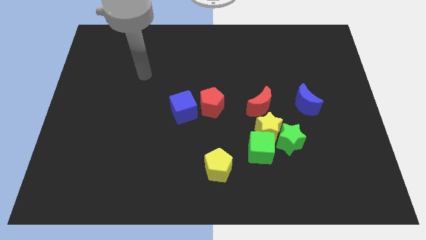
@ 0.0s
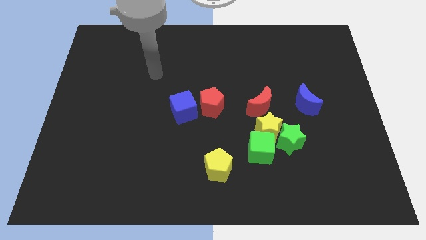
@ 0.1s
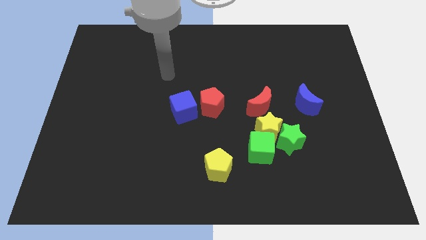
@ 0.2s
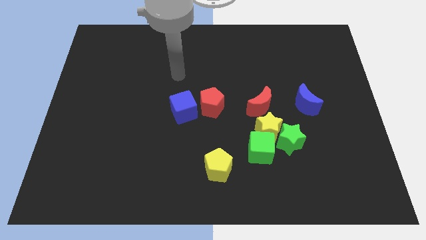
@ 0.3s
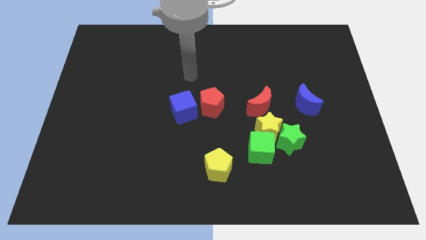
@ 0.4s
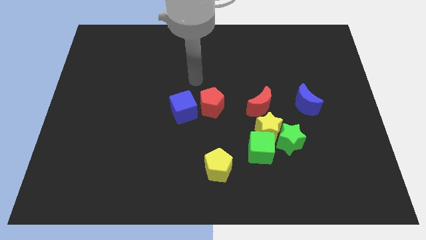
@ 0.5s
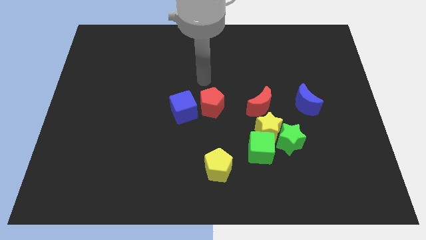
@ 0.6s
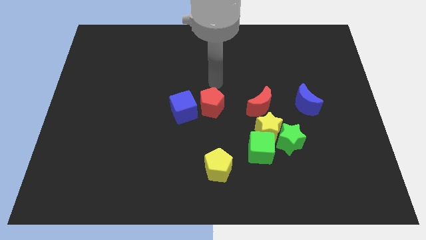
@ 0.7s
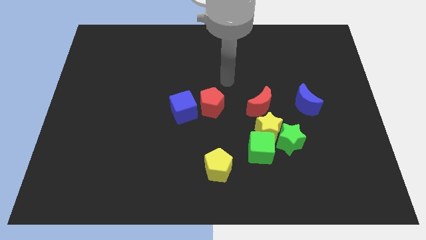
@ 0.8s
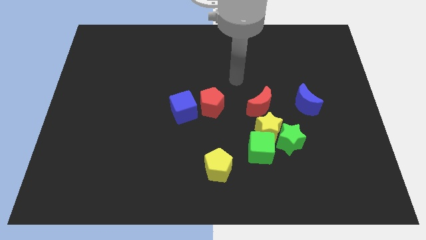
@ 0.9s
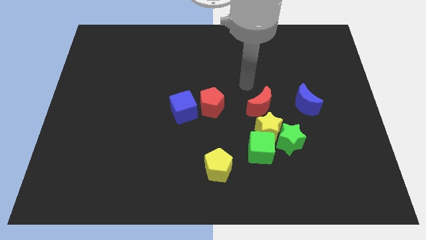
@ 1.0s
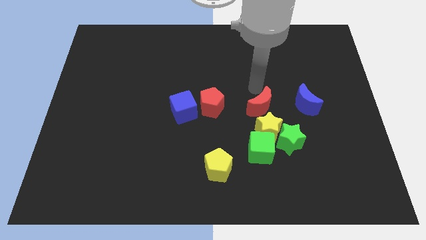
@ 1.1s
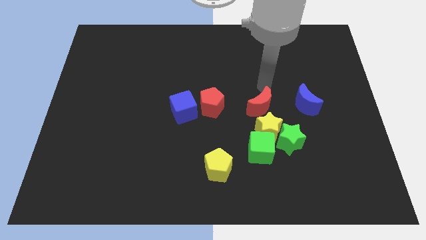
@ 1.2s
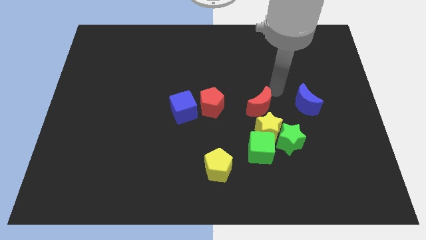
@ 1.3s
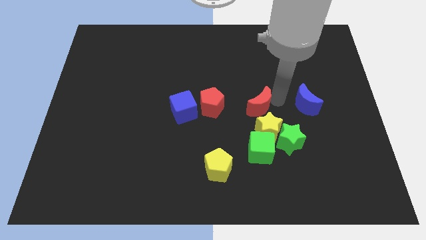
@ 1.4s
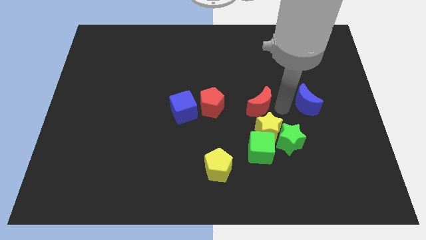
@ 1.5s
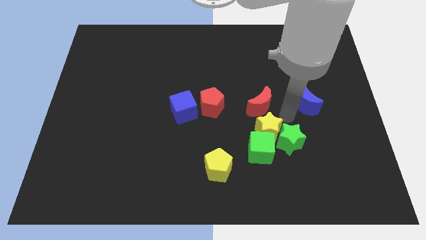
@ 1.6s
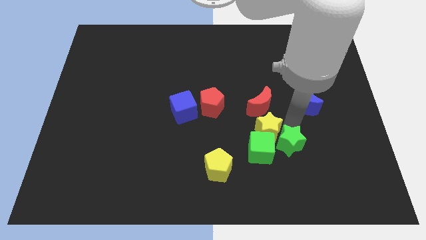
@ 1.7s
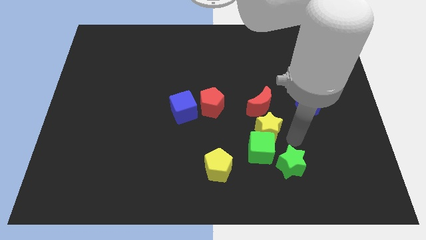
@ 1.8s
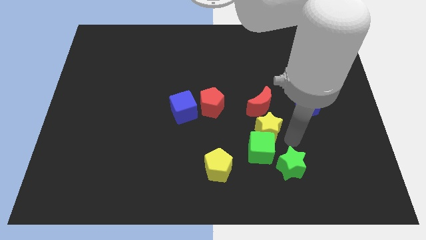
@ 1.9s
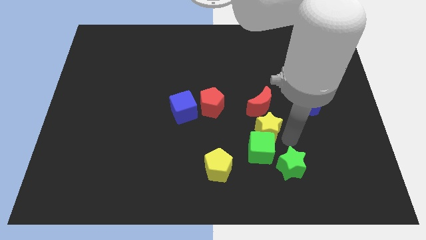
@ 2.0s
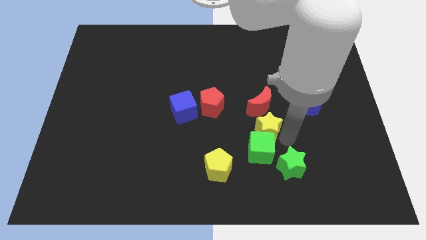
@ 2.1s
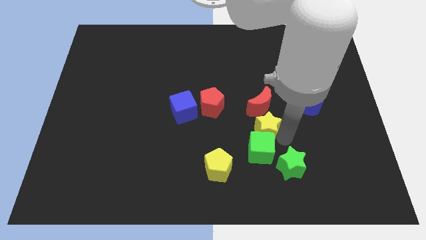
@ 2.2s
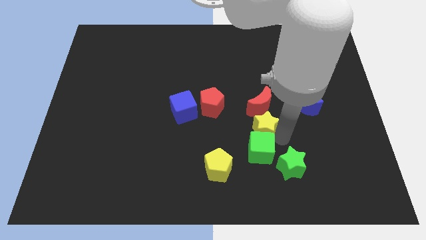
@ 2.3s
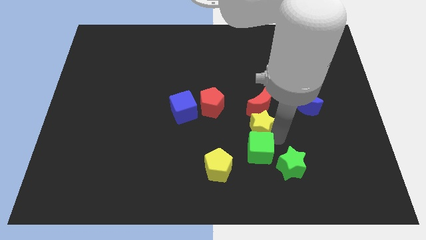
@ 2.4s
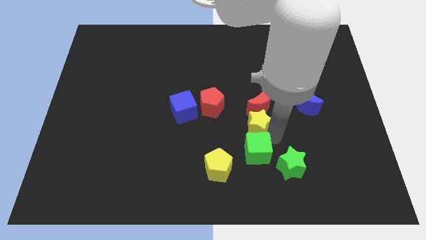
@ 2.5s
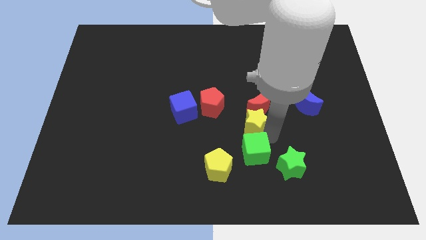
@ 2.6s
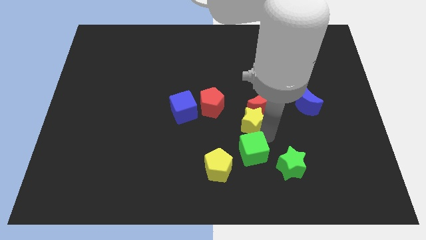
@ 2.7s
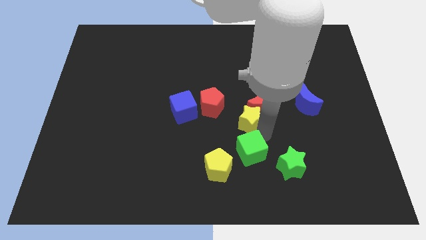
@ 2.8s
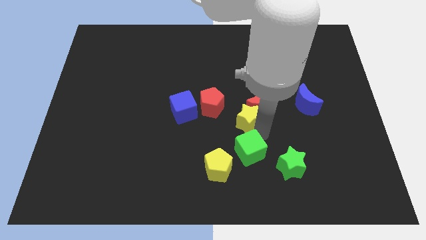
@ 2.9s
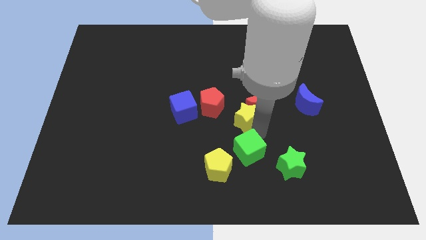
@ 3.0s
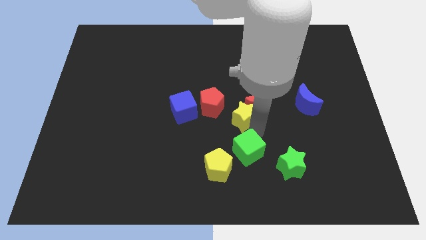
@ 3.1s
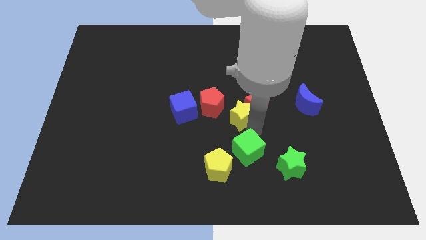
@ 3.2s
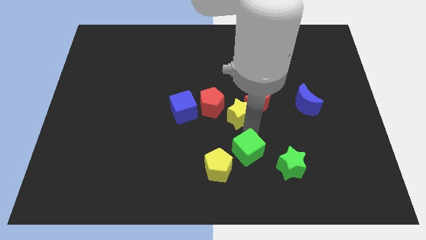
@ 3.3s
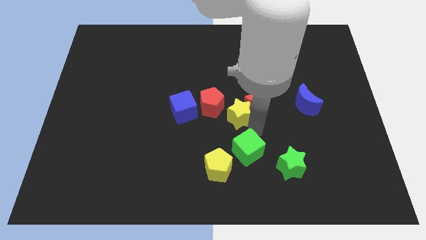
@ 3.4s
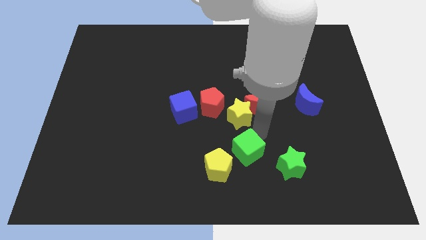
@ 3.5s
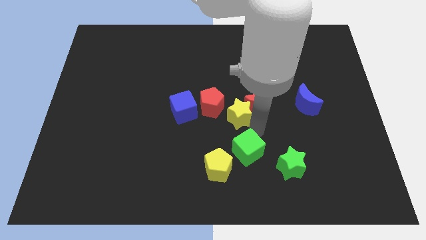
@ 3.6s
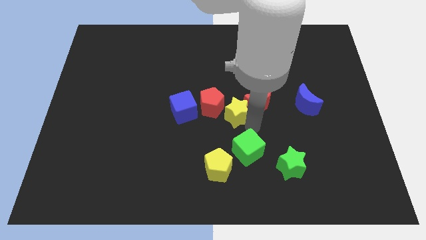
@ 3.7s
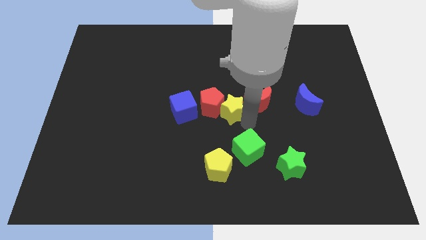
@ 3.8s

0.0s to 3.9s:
separate the yellow star from the group

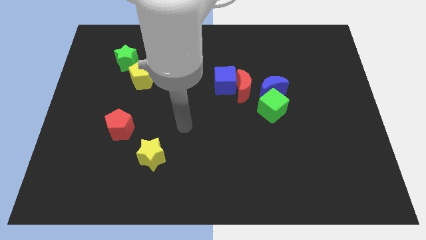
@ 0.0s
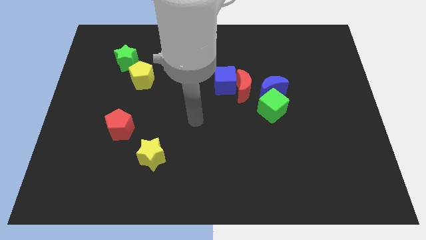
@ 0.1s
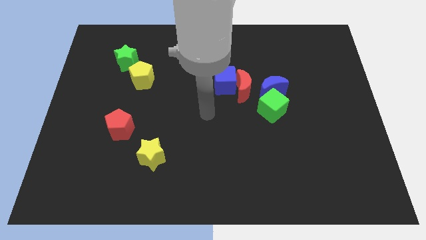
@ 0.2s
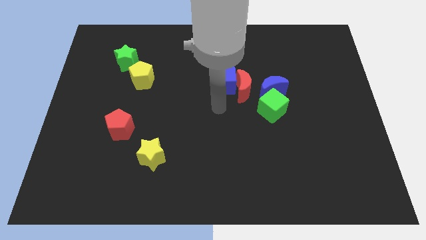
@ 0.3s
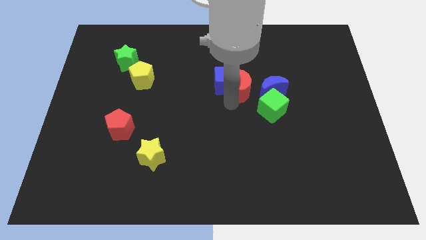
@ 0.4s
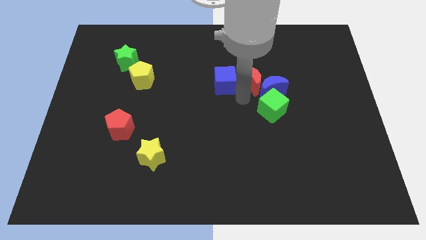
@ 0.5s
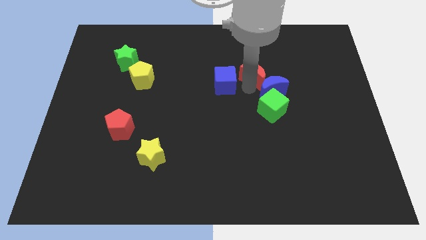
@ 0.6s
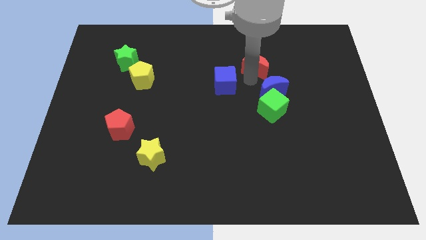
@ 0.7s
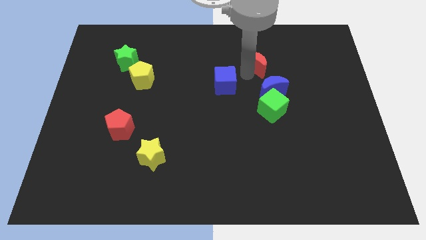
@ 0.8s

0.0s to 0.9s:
separate the blue cube from the red moon

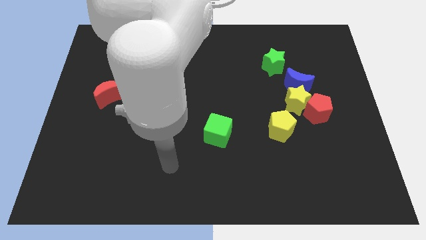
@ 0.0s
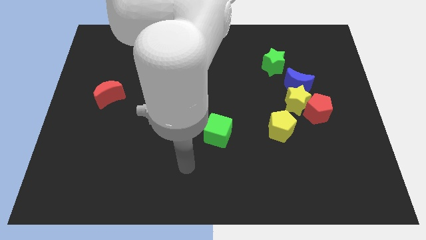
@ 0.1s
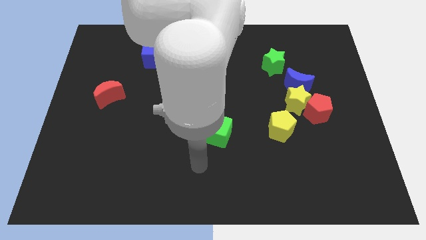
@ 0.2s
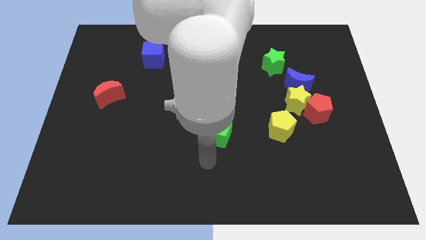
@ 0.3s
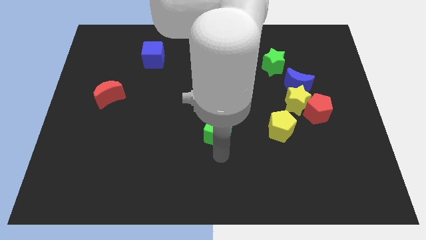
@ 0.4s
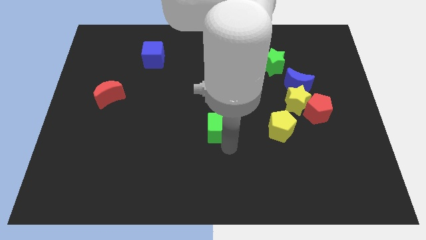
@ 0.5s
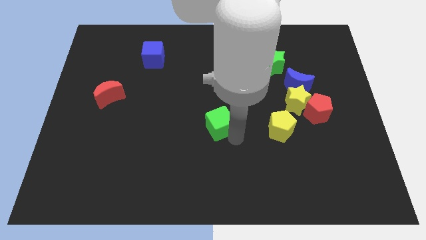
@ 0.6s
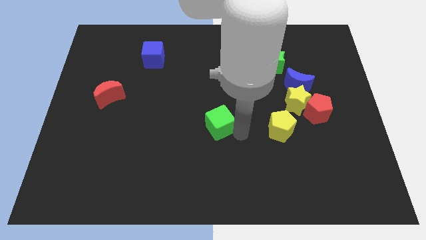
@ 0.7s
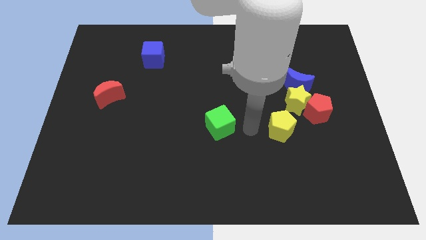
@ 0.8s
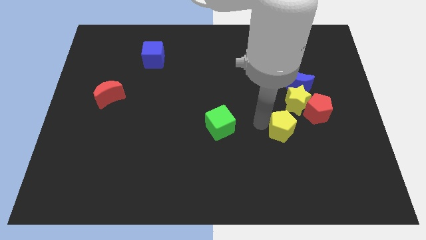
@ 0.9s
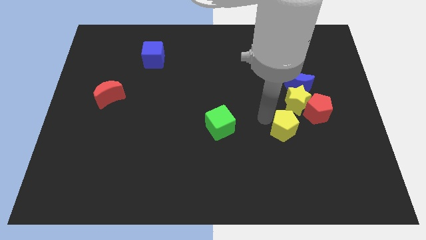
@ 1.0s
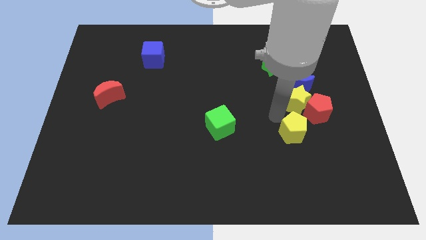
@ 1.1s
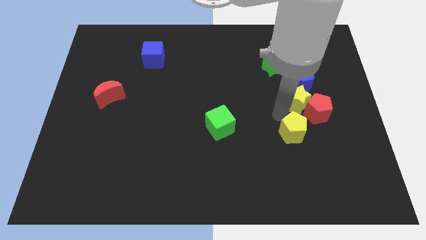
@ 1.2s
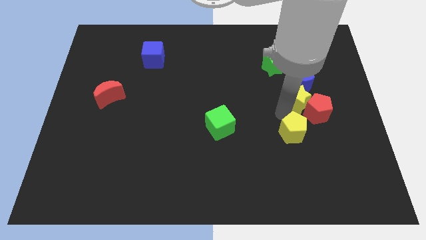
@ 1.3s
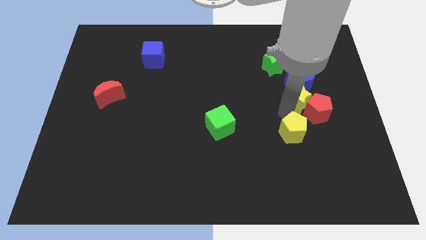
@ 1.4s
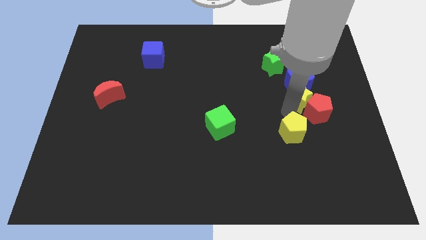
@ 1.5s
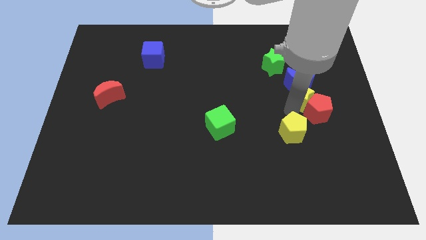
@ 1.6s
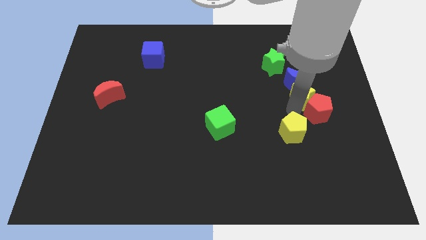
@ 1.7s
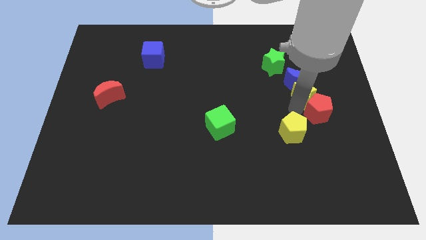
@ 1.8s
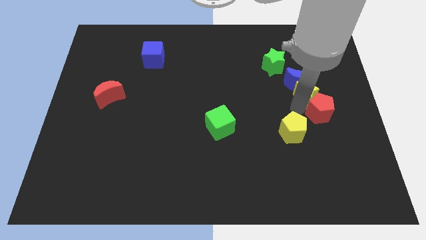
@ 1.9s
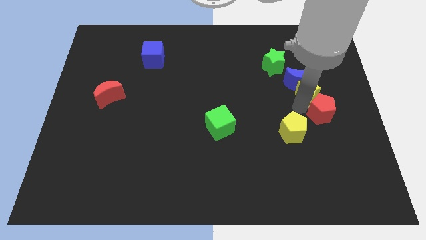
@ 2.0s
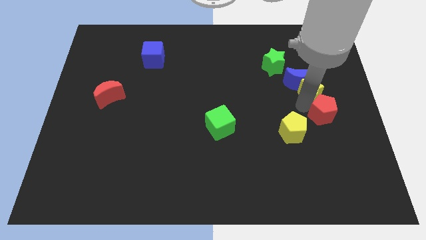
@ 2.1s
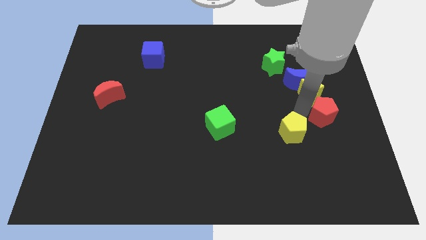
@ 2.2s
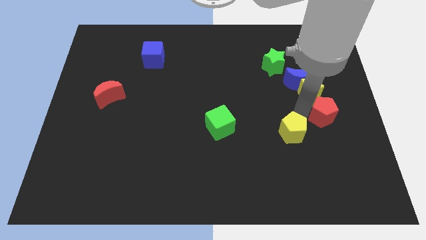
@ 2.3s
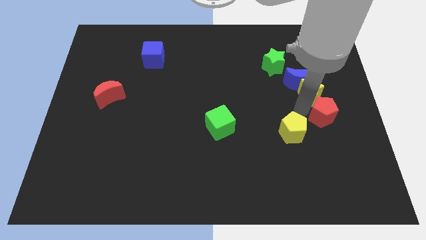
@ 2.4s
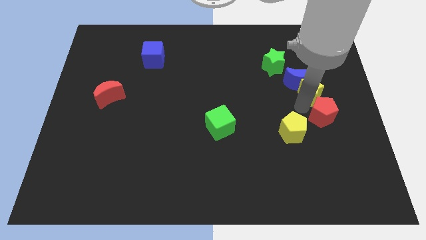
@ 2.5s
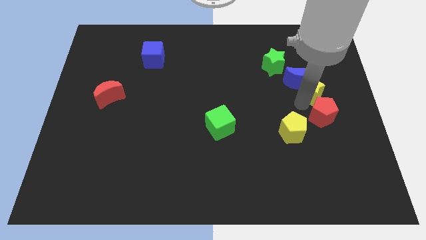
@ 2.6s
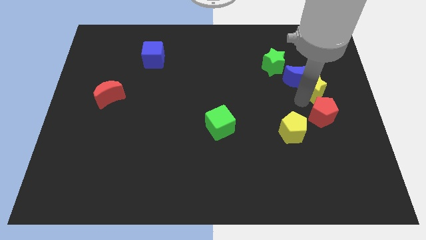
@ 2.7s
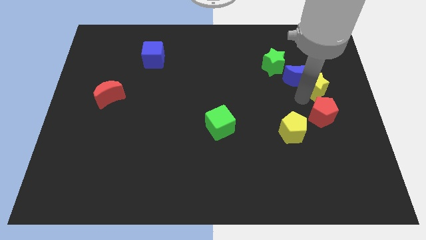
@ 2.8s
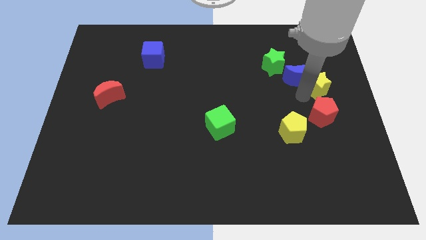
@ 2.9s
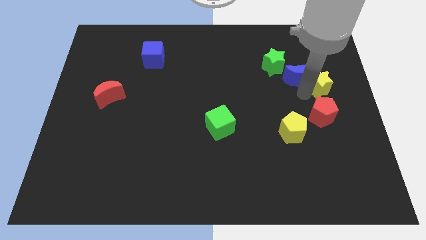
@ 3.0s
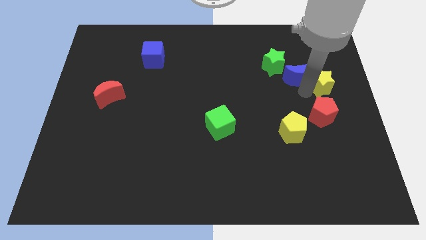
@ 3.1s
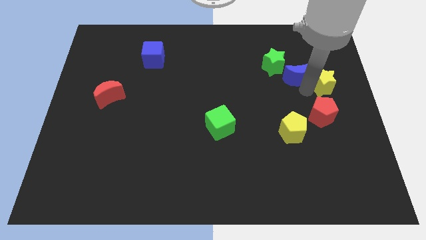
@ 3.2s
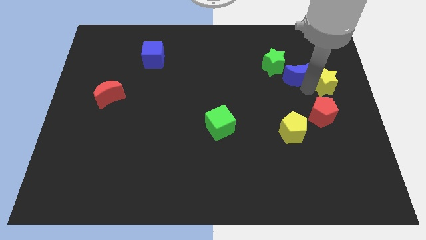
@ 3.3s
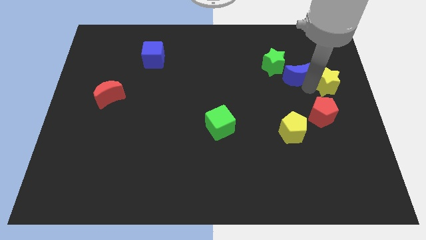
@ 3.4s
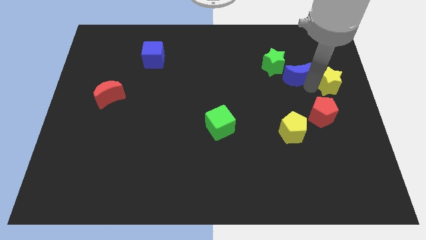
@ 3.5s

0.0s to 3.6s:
pull the yellow star apart from the red pentagon, blue moon, and yellow pentagon

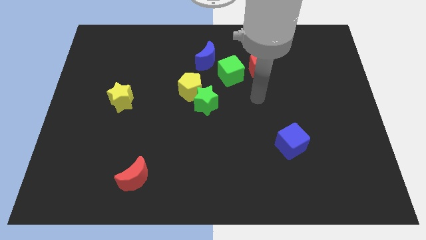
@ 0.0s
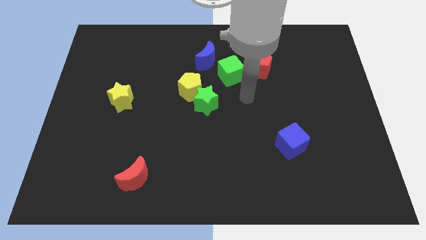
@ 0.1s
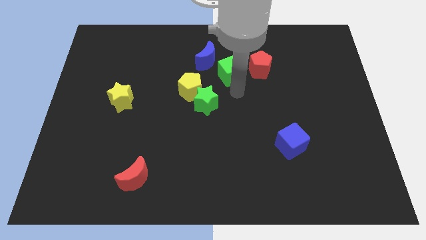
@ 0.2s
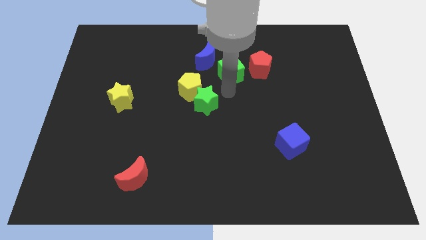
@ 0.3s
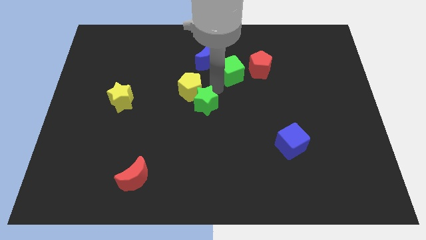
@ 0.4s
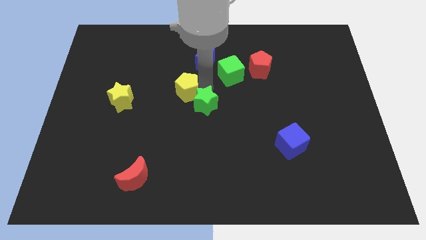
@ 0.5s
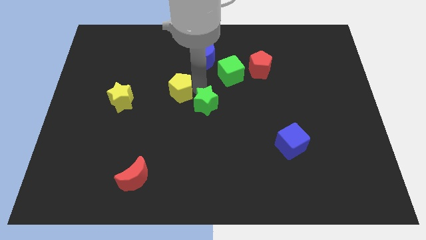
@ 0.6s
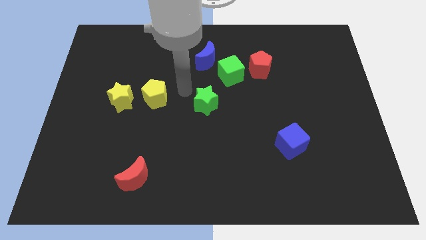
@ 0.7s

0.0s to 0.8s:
move the green star away from the yellow pentagon

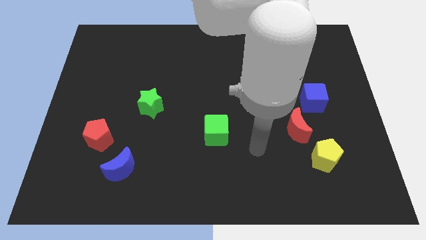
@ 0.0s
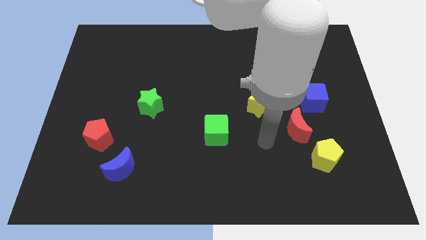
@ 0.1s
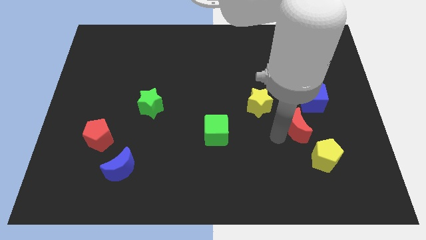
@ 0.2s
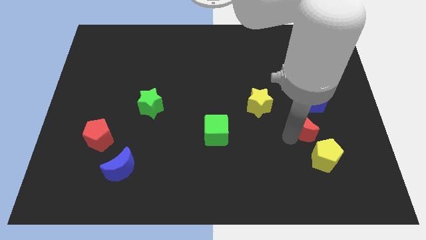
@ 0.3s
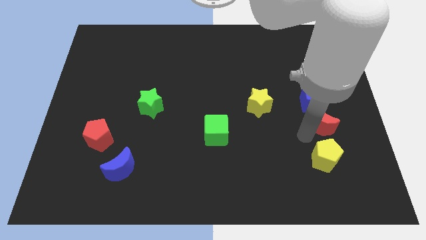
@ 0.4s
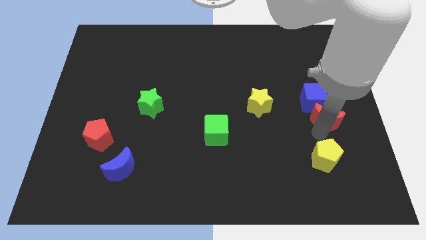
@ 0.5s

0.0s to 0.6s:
move the yellow pentagon away from the red moon
